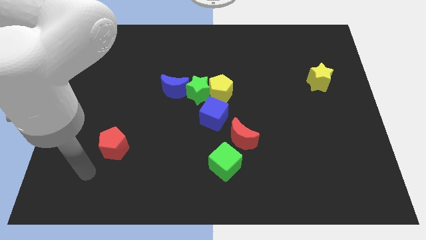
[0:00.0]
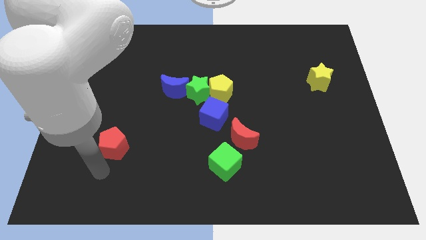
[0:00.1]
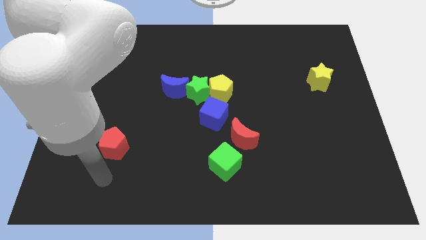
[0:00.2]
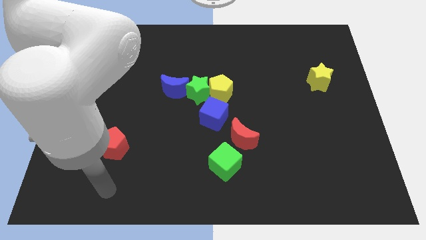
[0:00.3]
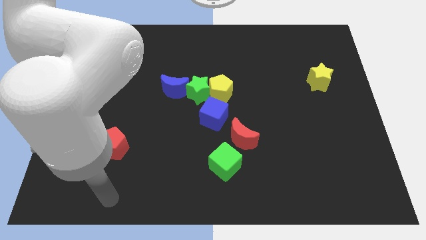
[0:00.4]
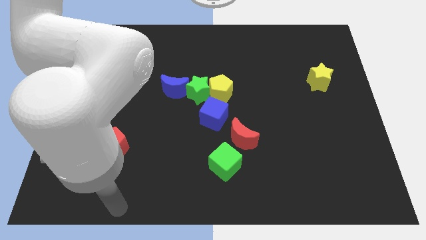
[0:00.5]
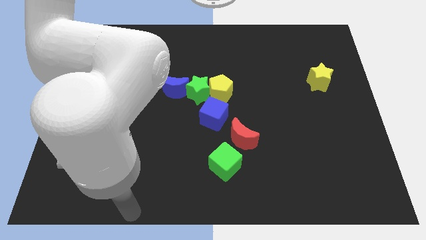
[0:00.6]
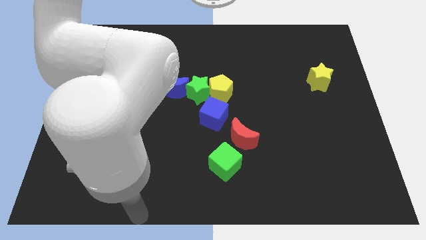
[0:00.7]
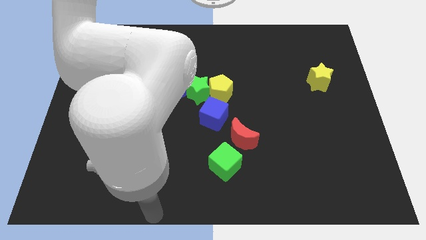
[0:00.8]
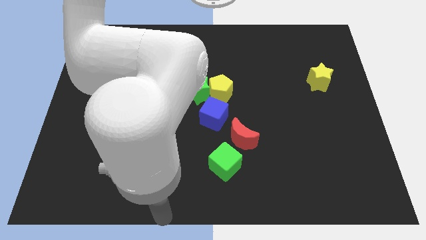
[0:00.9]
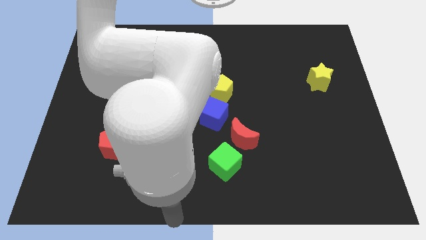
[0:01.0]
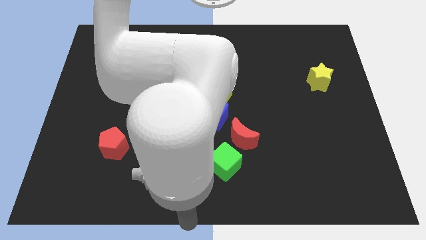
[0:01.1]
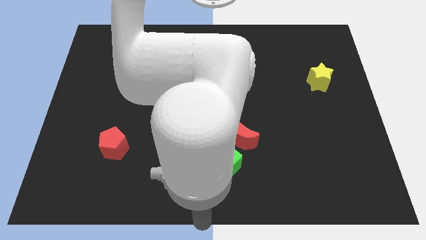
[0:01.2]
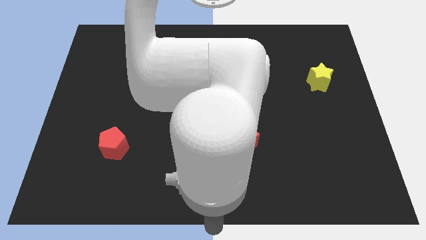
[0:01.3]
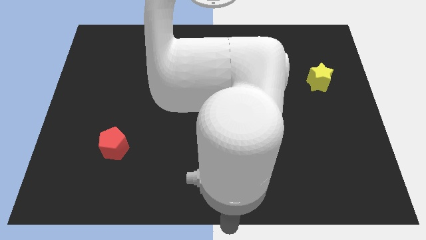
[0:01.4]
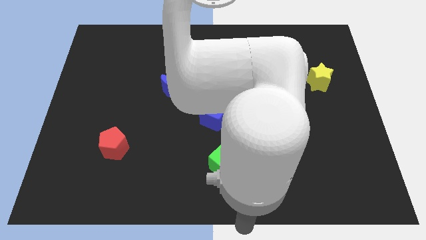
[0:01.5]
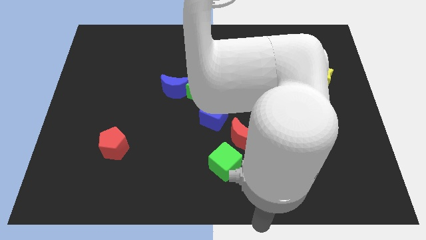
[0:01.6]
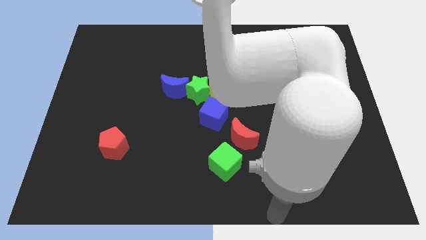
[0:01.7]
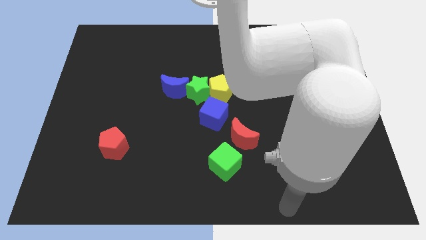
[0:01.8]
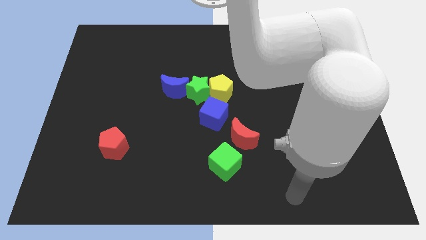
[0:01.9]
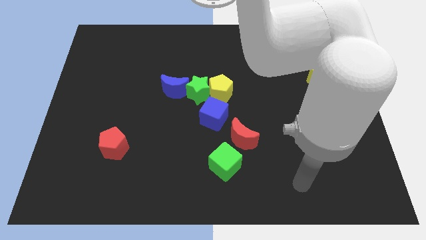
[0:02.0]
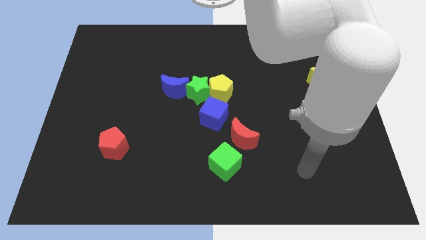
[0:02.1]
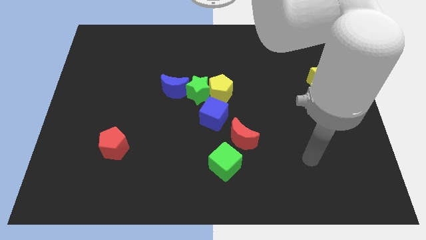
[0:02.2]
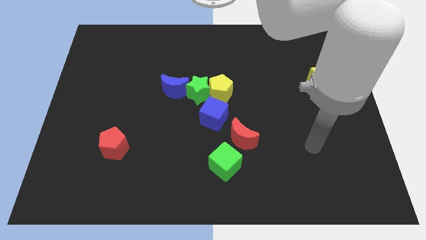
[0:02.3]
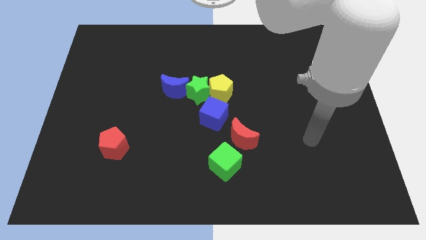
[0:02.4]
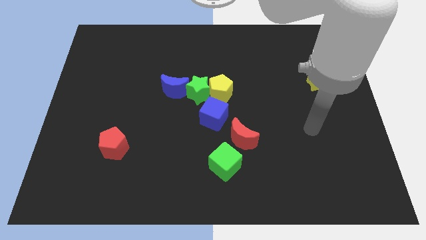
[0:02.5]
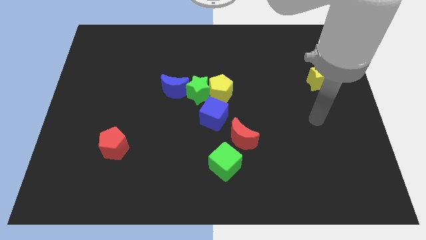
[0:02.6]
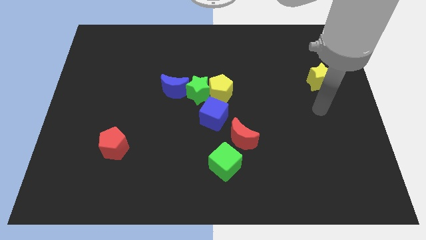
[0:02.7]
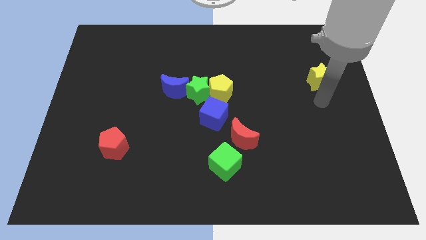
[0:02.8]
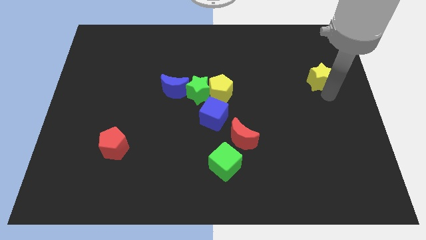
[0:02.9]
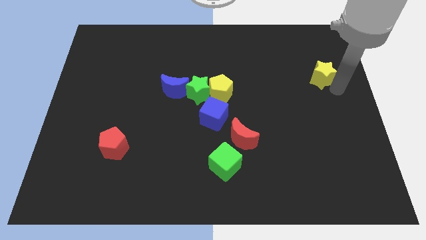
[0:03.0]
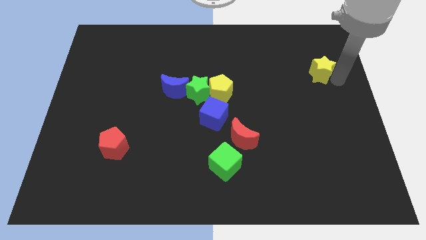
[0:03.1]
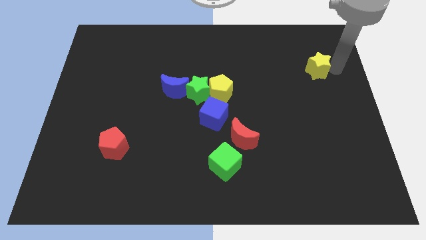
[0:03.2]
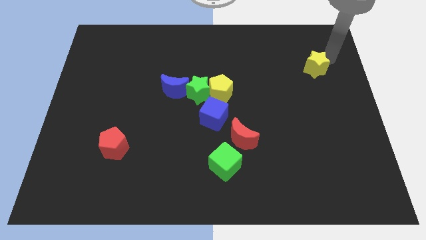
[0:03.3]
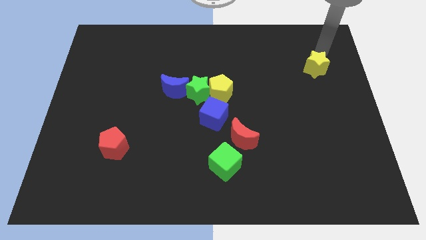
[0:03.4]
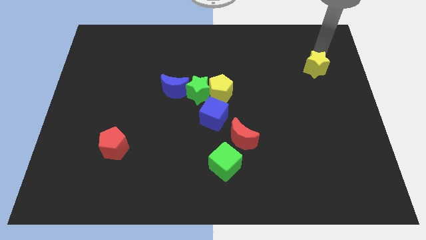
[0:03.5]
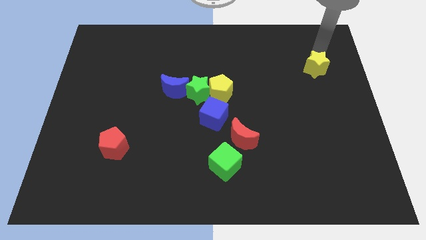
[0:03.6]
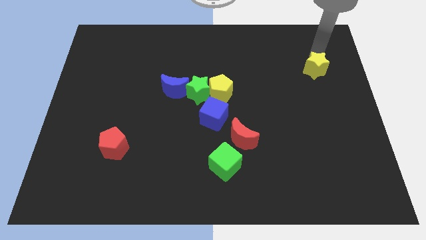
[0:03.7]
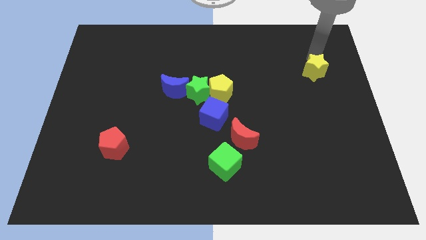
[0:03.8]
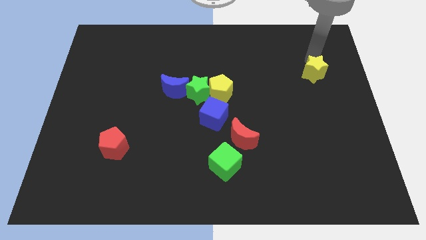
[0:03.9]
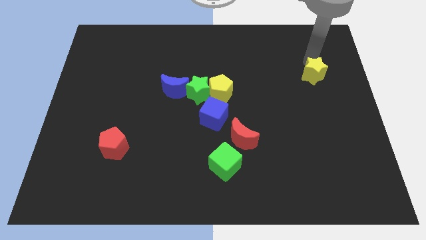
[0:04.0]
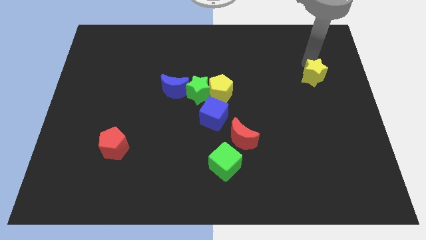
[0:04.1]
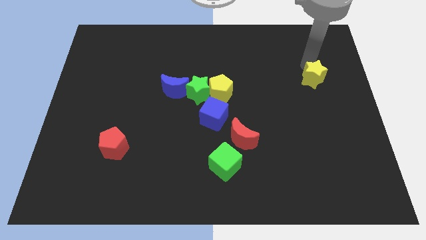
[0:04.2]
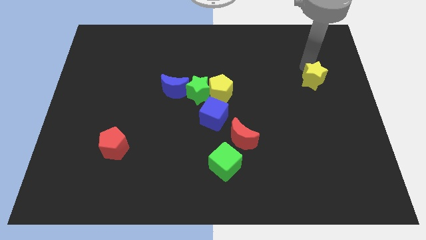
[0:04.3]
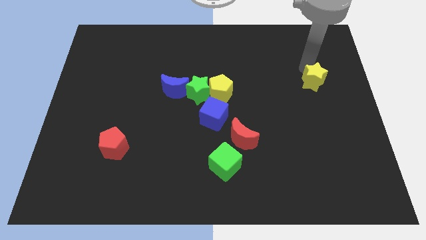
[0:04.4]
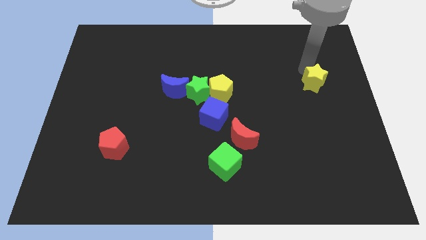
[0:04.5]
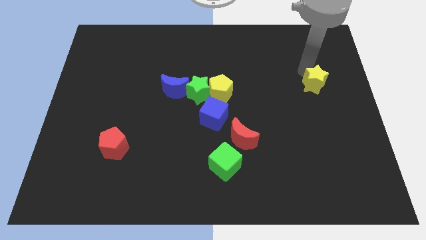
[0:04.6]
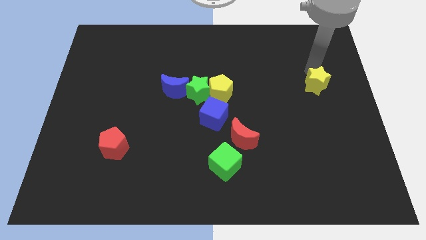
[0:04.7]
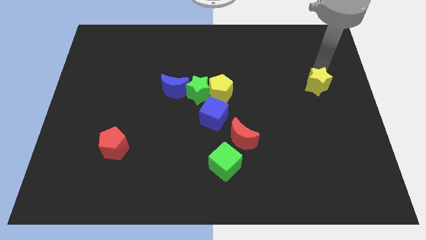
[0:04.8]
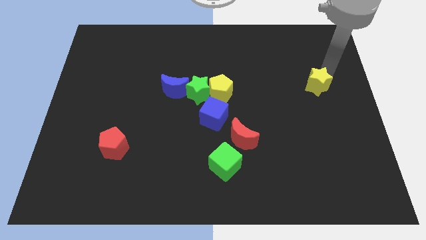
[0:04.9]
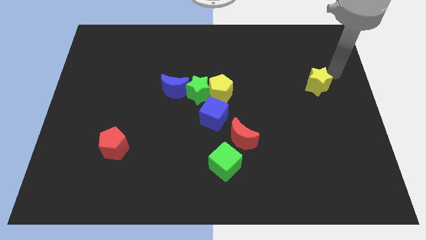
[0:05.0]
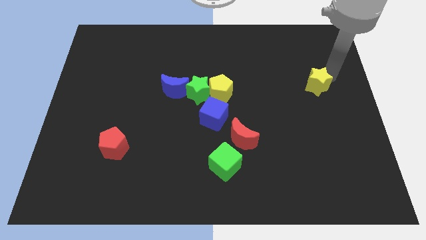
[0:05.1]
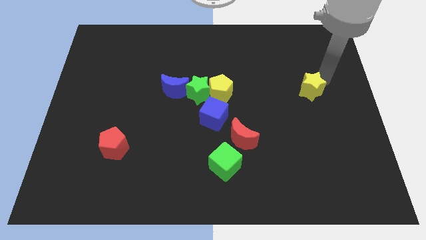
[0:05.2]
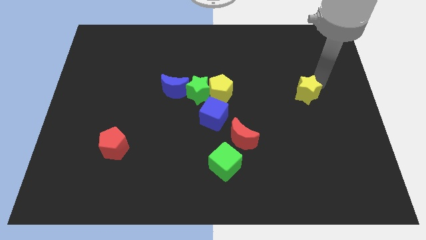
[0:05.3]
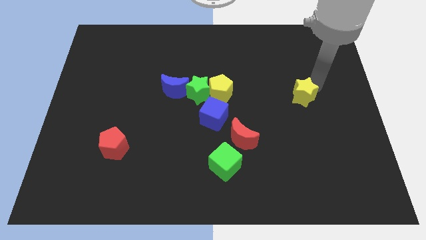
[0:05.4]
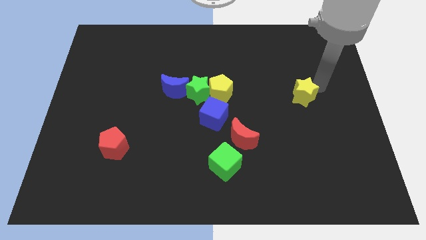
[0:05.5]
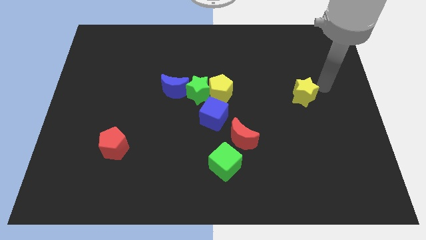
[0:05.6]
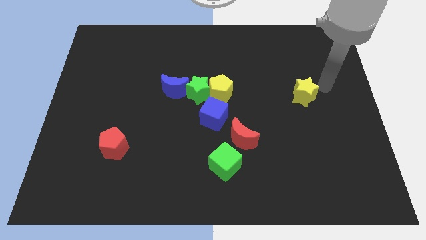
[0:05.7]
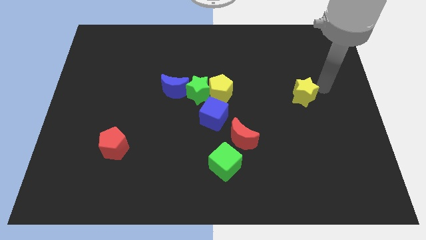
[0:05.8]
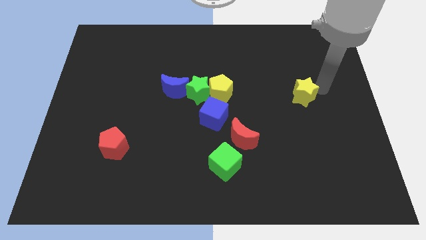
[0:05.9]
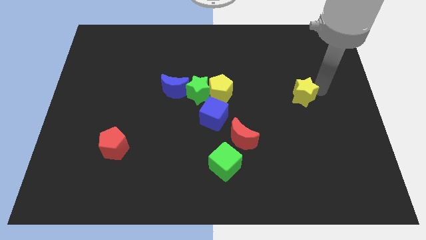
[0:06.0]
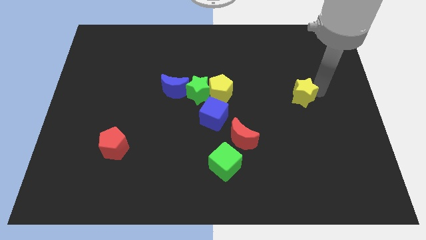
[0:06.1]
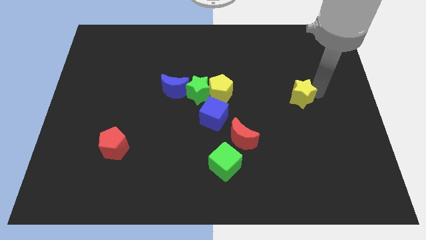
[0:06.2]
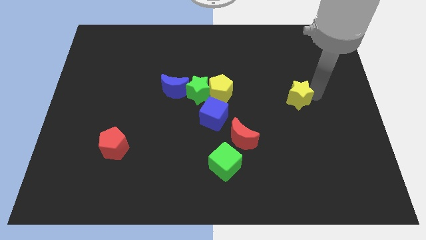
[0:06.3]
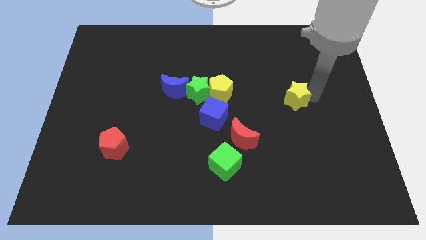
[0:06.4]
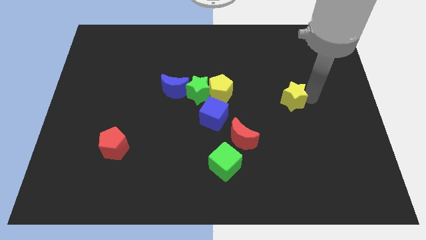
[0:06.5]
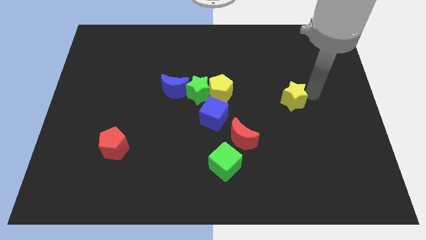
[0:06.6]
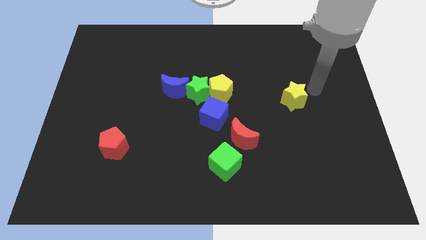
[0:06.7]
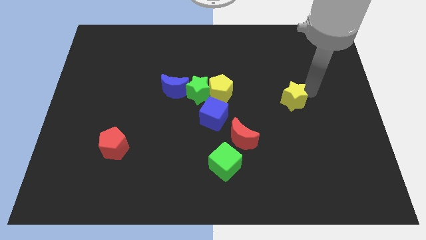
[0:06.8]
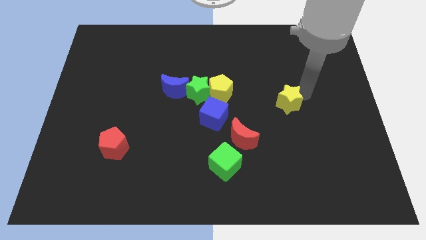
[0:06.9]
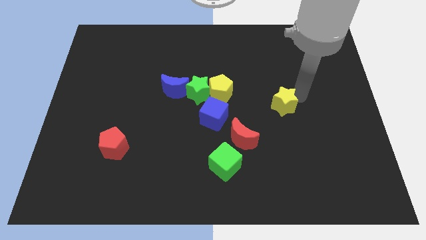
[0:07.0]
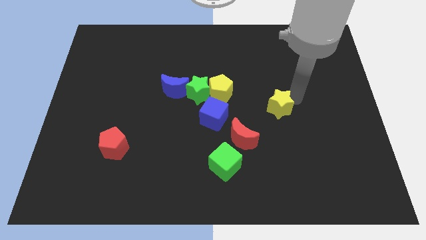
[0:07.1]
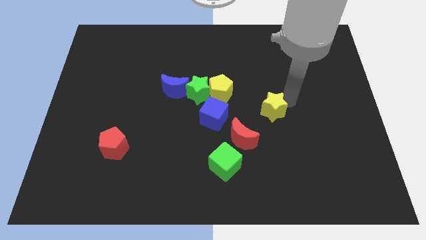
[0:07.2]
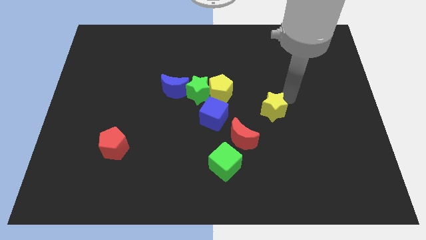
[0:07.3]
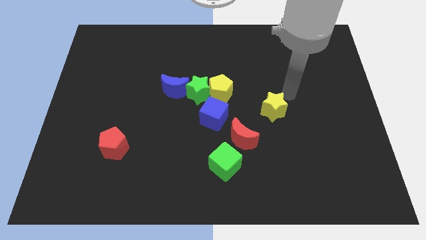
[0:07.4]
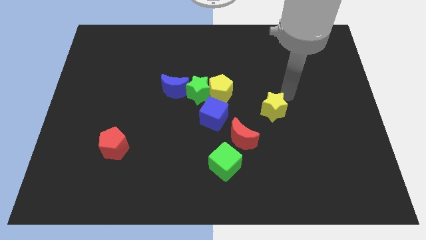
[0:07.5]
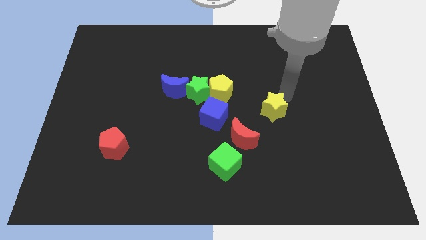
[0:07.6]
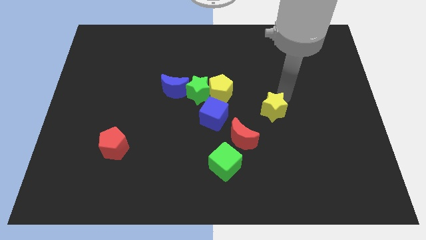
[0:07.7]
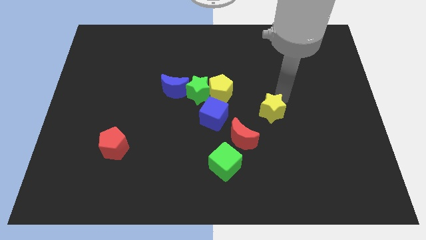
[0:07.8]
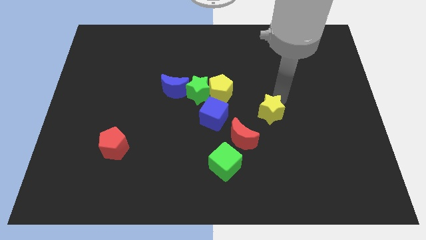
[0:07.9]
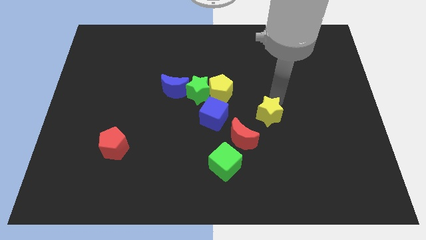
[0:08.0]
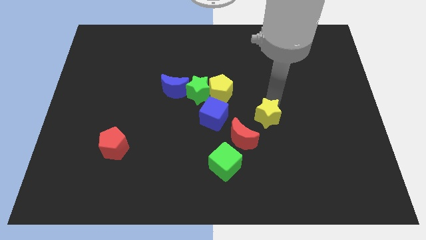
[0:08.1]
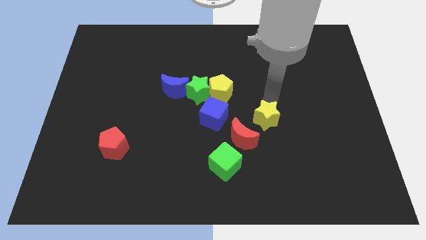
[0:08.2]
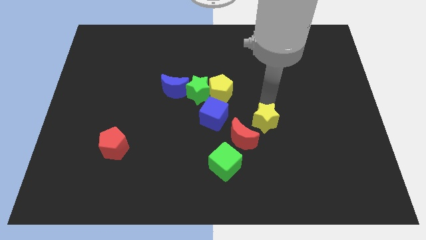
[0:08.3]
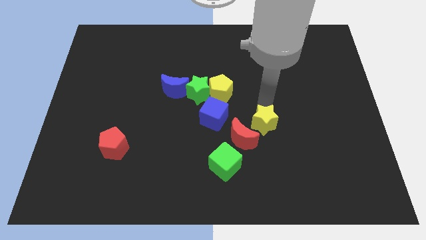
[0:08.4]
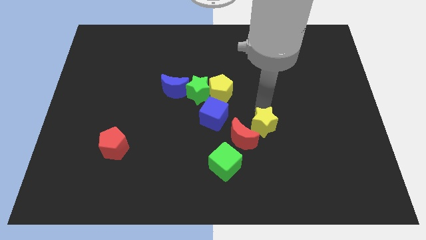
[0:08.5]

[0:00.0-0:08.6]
slide the yellow star to the red moon
